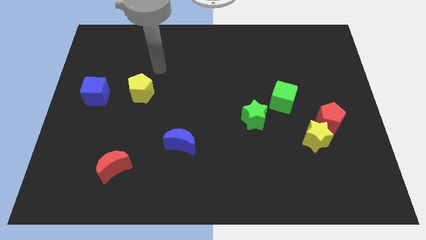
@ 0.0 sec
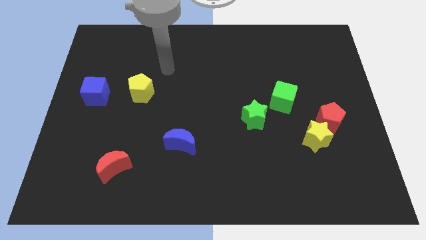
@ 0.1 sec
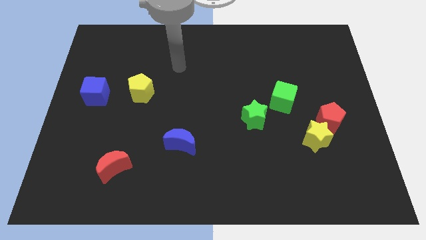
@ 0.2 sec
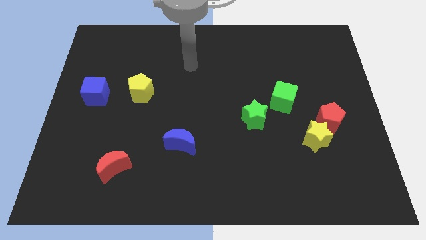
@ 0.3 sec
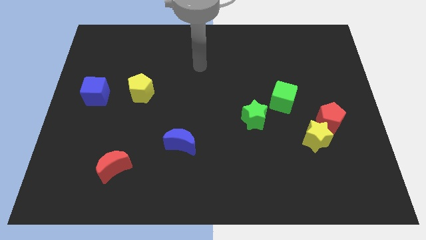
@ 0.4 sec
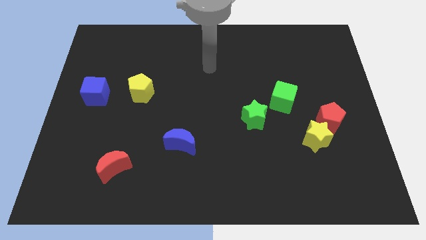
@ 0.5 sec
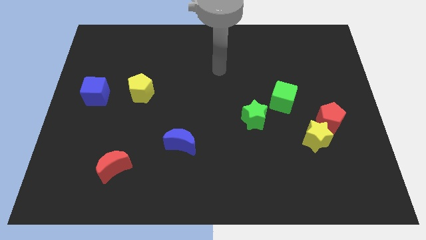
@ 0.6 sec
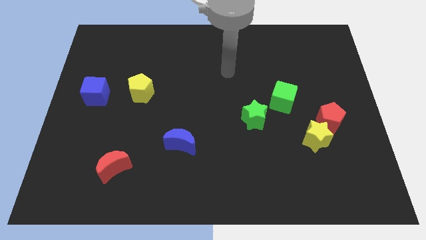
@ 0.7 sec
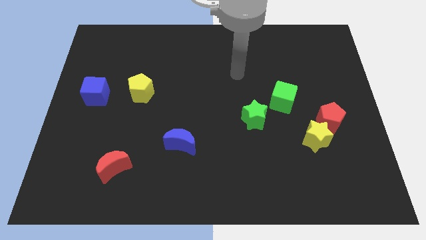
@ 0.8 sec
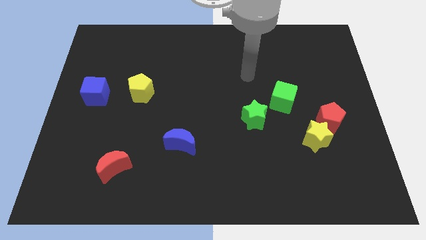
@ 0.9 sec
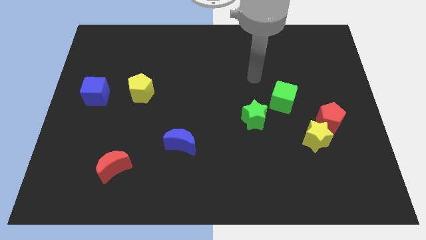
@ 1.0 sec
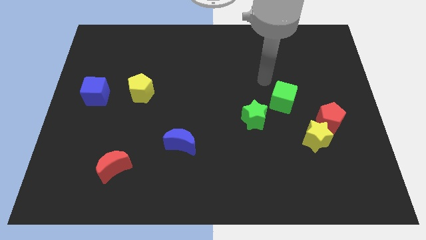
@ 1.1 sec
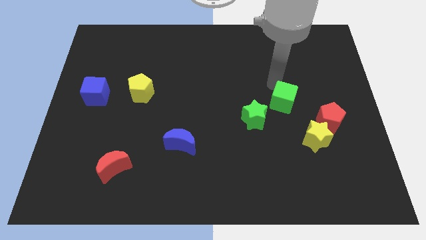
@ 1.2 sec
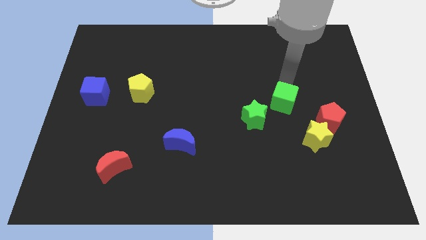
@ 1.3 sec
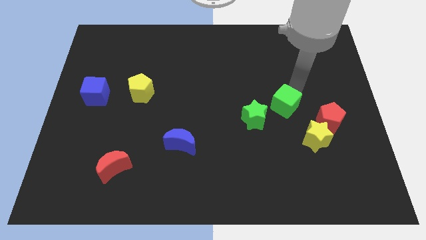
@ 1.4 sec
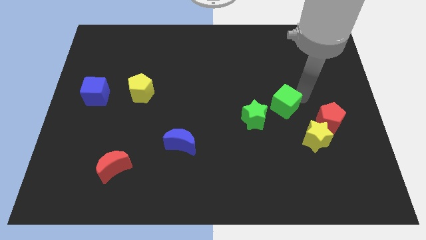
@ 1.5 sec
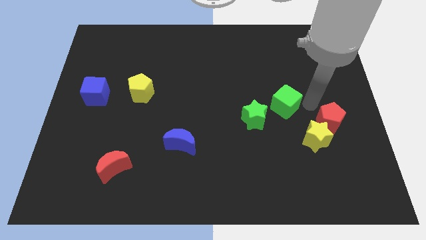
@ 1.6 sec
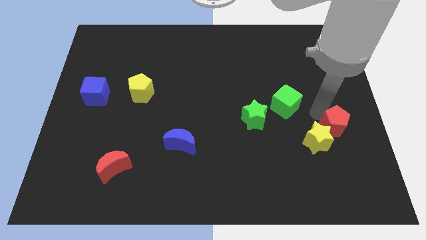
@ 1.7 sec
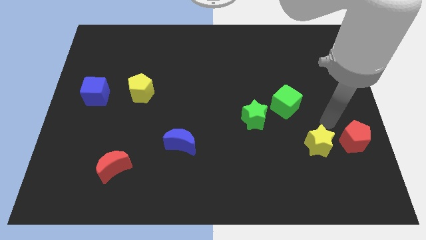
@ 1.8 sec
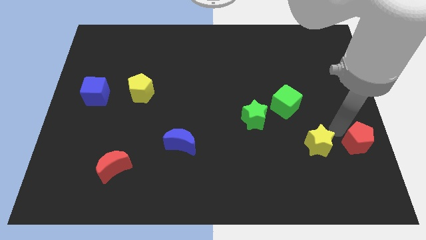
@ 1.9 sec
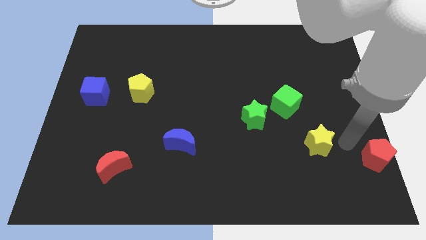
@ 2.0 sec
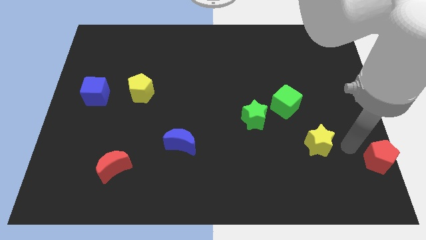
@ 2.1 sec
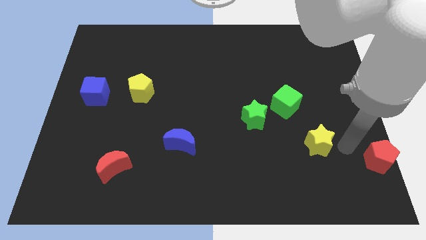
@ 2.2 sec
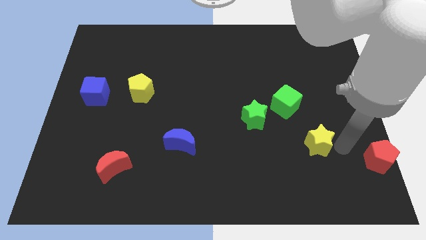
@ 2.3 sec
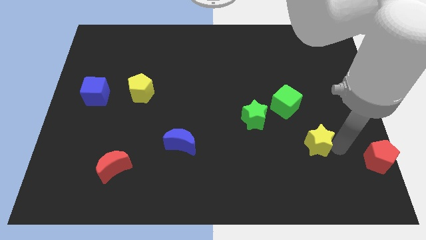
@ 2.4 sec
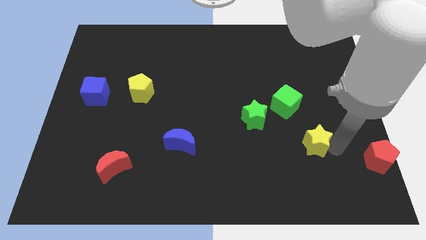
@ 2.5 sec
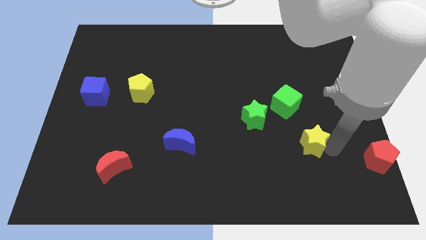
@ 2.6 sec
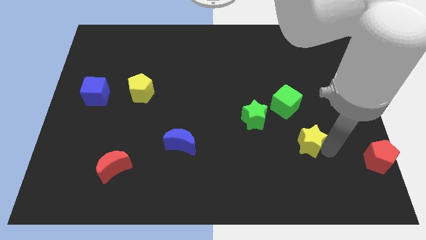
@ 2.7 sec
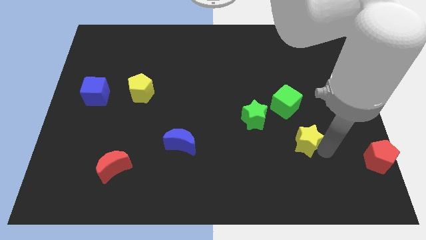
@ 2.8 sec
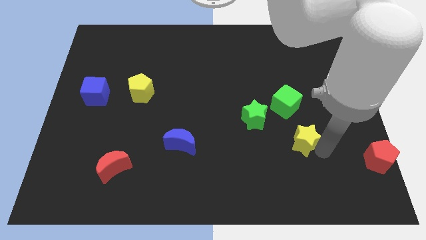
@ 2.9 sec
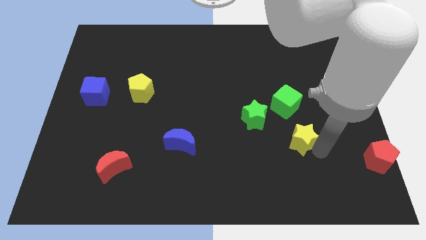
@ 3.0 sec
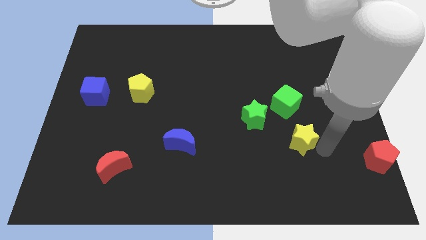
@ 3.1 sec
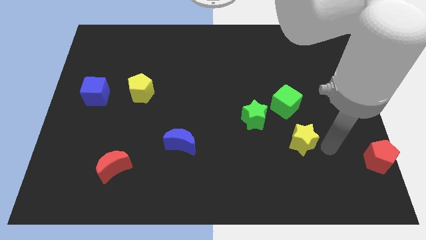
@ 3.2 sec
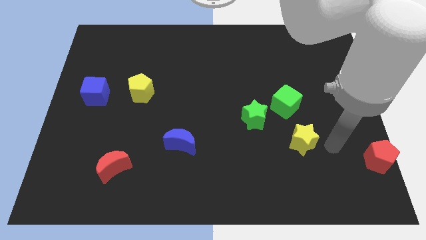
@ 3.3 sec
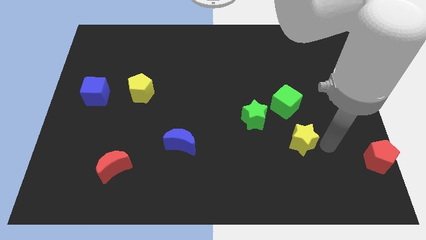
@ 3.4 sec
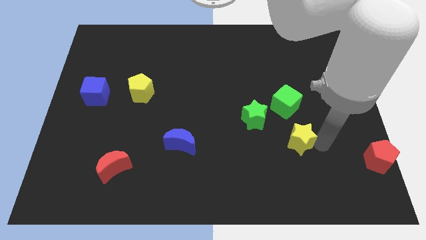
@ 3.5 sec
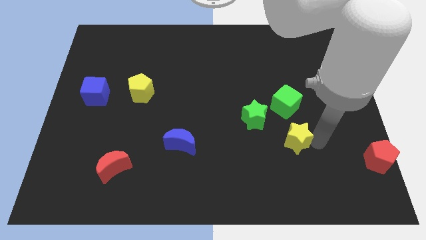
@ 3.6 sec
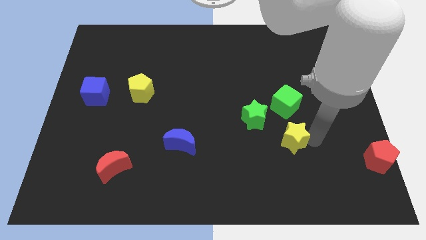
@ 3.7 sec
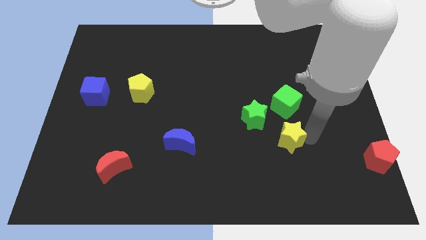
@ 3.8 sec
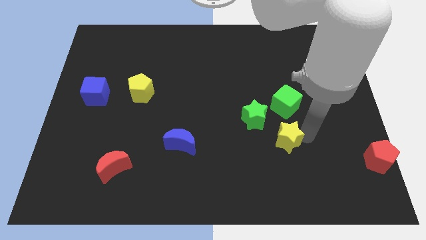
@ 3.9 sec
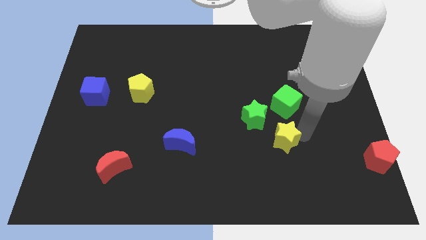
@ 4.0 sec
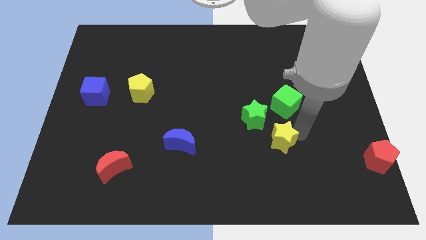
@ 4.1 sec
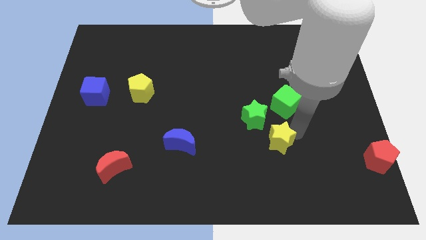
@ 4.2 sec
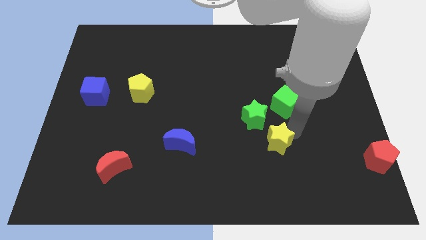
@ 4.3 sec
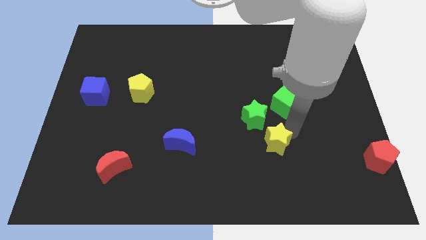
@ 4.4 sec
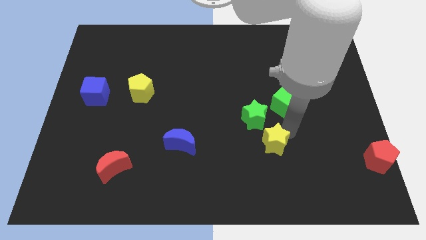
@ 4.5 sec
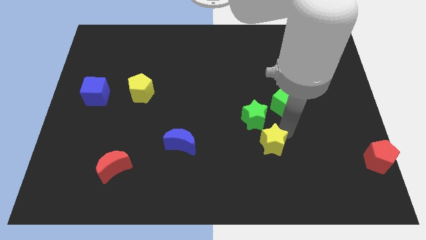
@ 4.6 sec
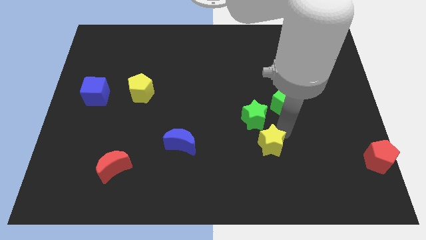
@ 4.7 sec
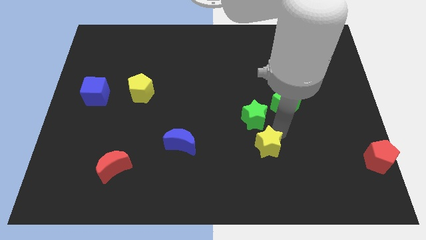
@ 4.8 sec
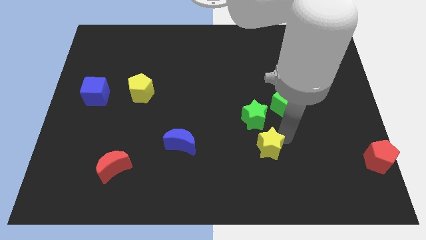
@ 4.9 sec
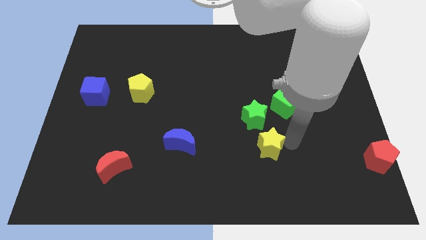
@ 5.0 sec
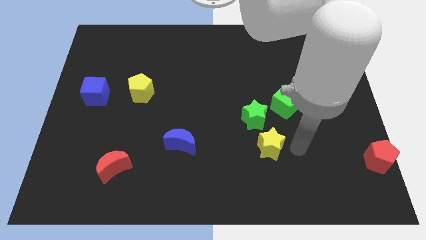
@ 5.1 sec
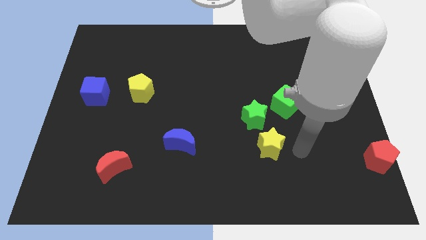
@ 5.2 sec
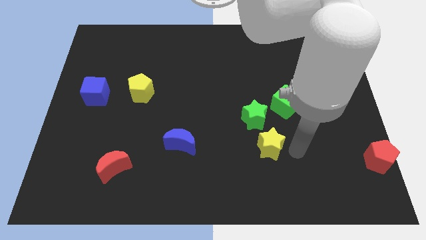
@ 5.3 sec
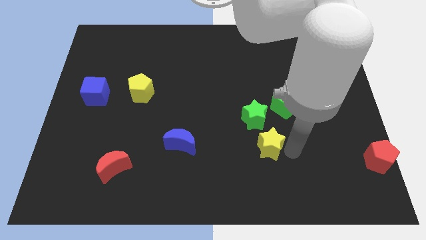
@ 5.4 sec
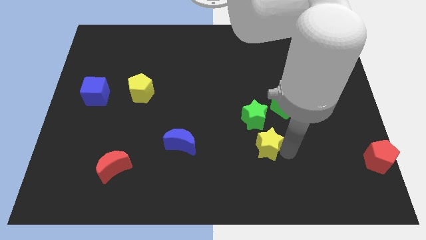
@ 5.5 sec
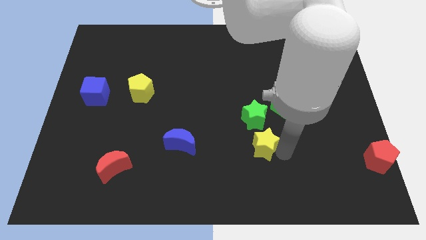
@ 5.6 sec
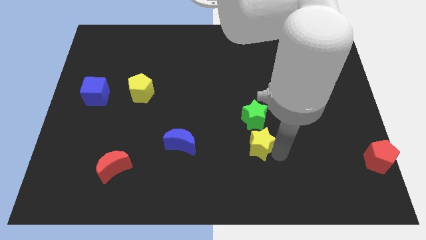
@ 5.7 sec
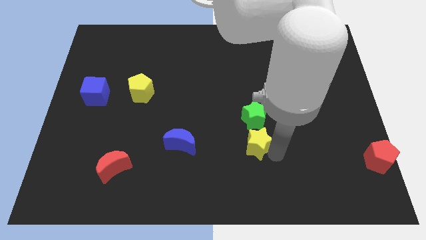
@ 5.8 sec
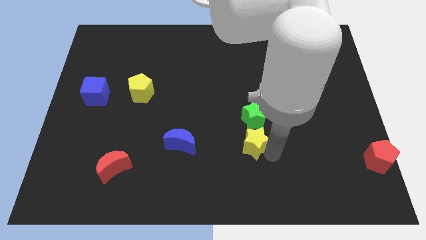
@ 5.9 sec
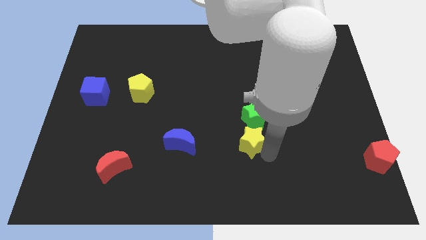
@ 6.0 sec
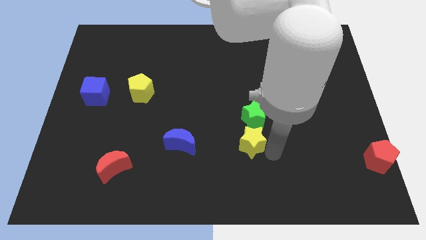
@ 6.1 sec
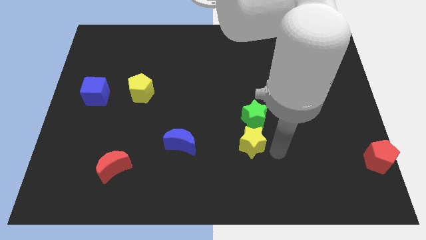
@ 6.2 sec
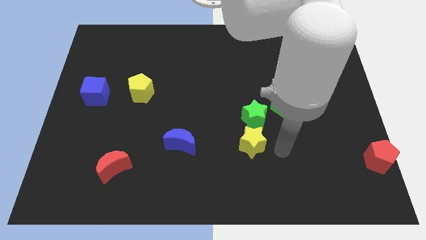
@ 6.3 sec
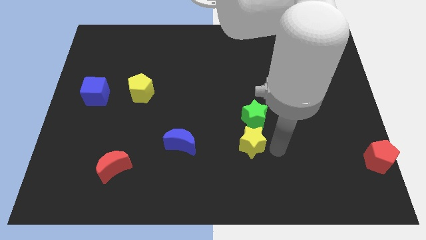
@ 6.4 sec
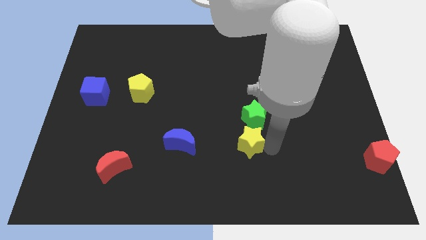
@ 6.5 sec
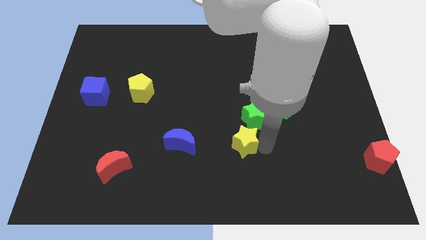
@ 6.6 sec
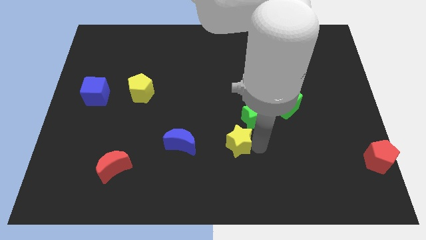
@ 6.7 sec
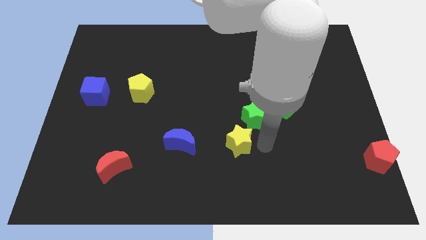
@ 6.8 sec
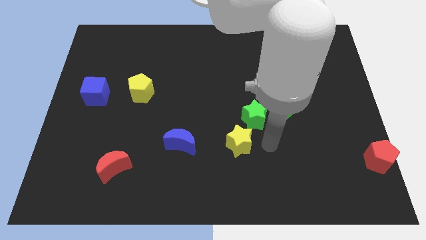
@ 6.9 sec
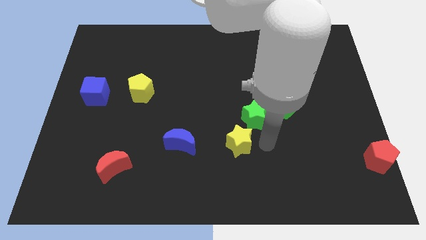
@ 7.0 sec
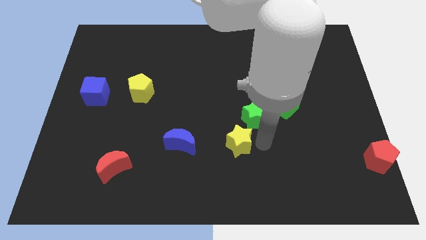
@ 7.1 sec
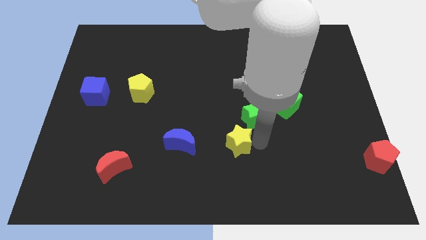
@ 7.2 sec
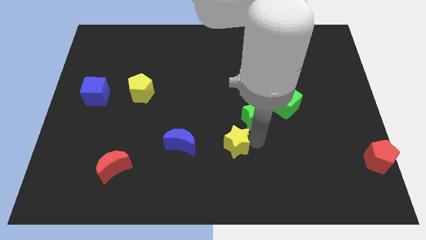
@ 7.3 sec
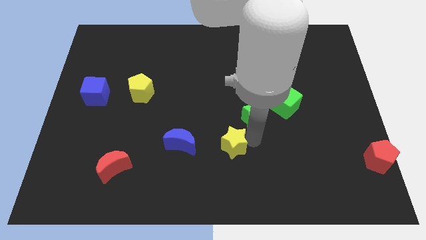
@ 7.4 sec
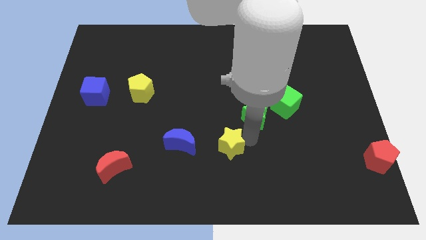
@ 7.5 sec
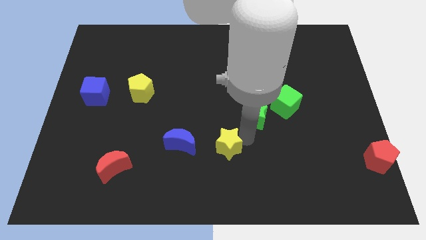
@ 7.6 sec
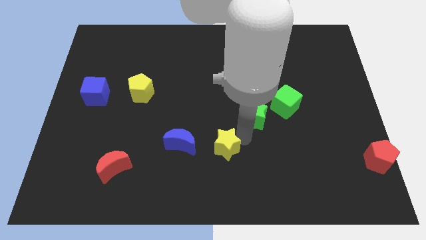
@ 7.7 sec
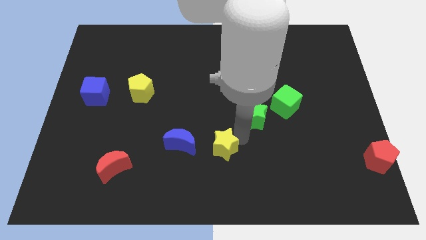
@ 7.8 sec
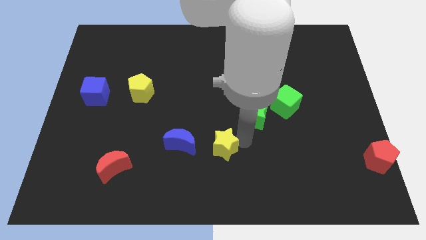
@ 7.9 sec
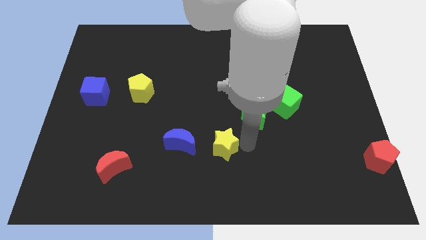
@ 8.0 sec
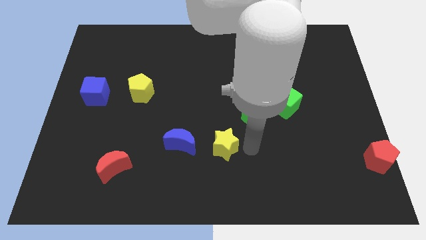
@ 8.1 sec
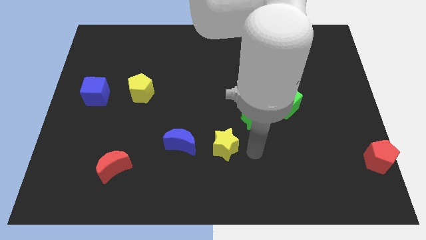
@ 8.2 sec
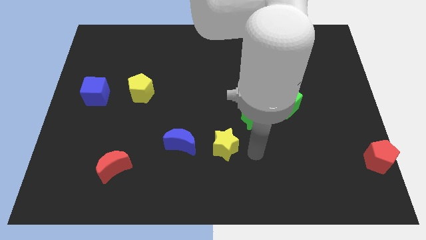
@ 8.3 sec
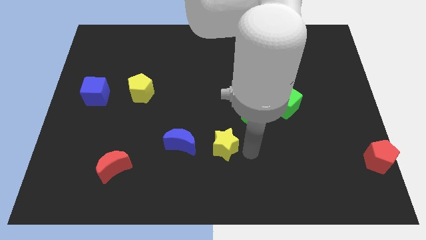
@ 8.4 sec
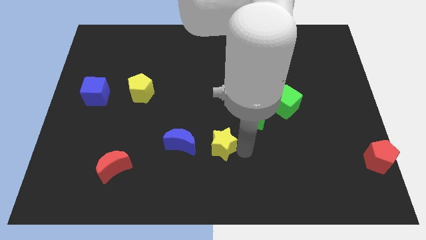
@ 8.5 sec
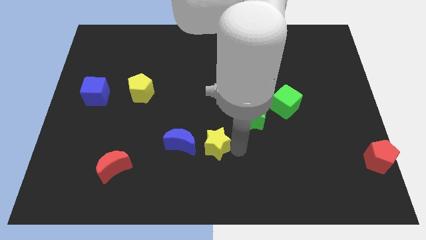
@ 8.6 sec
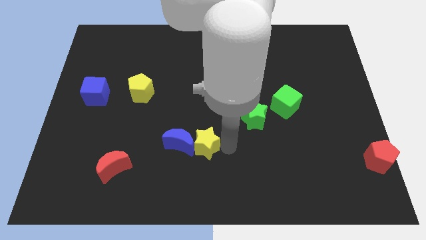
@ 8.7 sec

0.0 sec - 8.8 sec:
push the yellow star next to the blue moon
